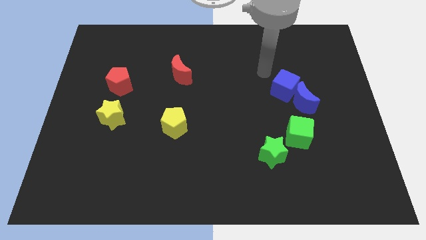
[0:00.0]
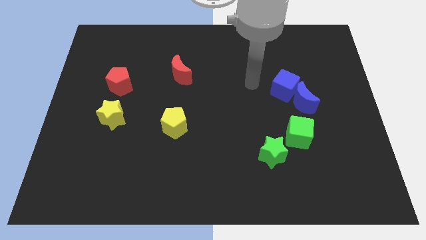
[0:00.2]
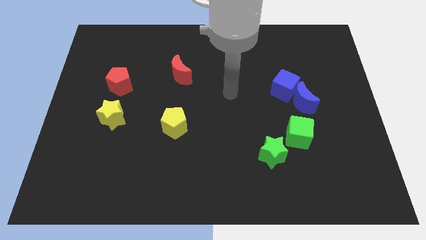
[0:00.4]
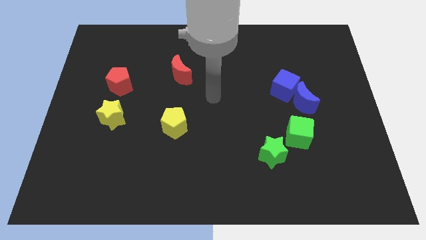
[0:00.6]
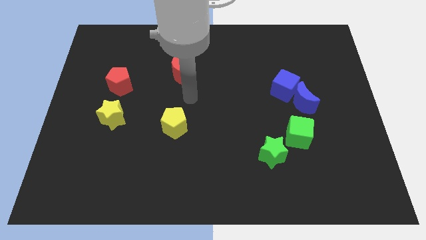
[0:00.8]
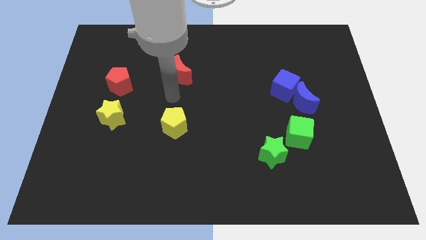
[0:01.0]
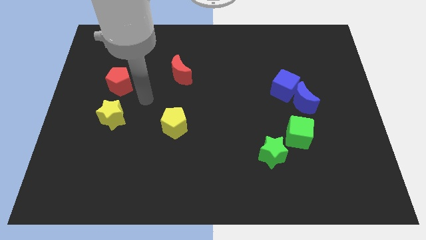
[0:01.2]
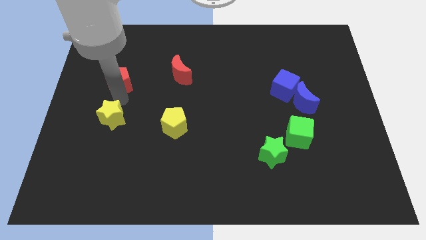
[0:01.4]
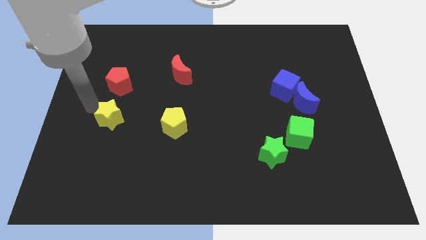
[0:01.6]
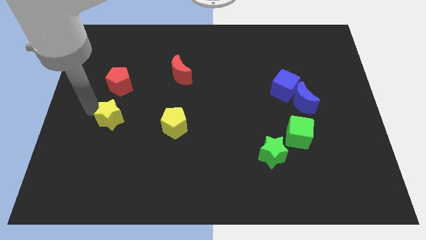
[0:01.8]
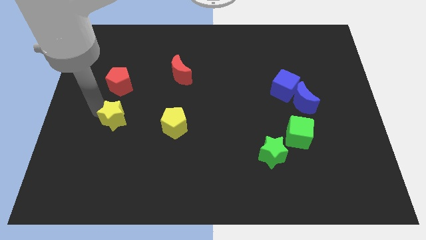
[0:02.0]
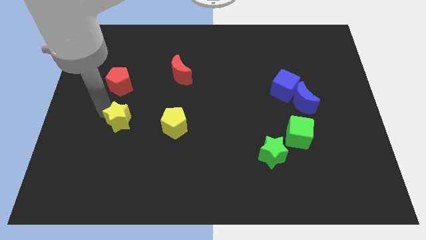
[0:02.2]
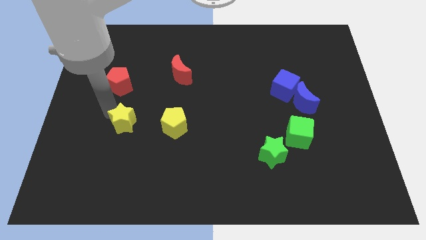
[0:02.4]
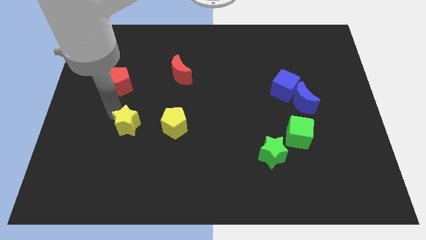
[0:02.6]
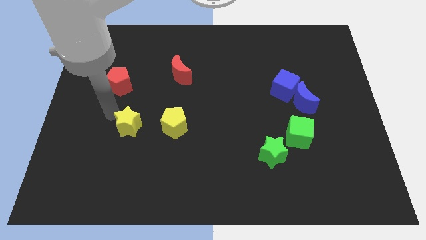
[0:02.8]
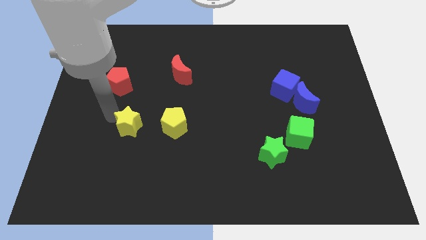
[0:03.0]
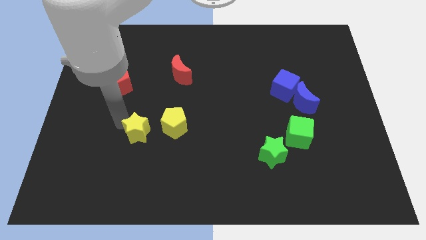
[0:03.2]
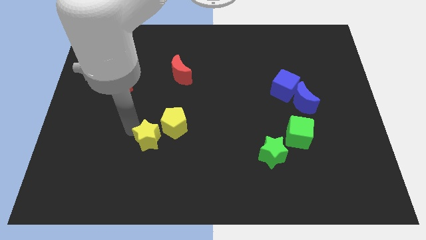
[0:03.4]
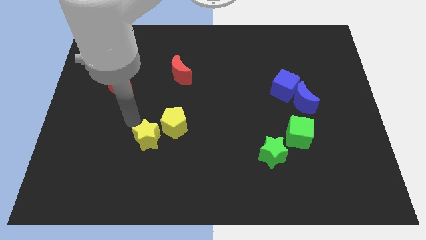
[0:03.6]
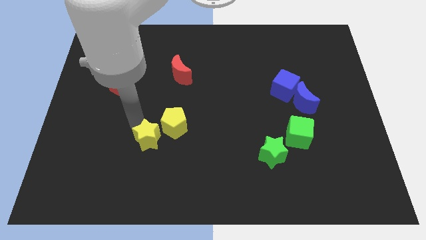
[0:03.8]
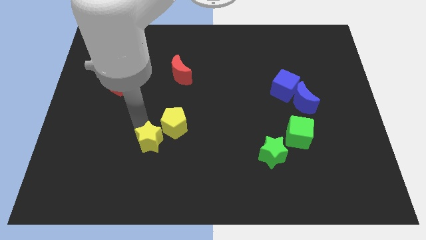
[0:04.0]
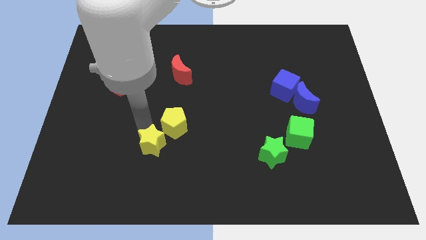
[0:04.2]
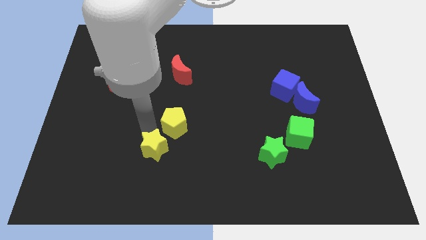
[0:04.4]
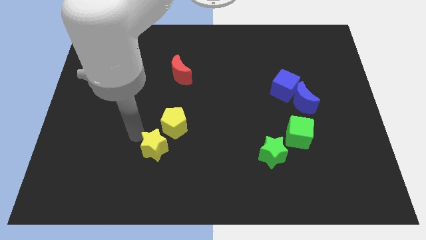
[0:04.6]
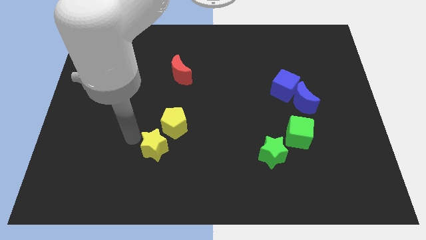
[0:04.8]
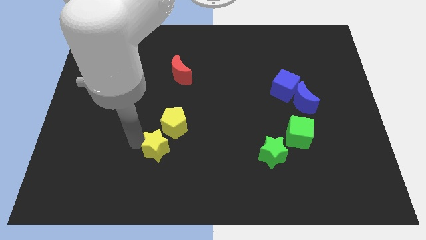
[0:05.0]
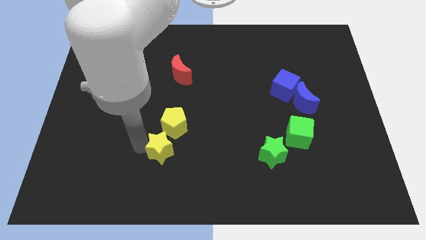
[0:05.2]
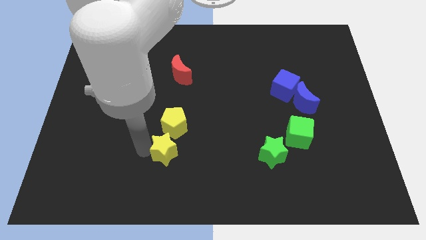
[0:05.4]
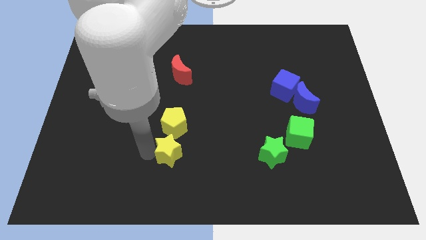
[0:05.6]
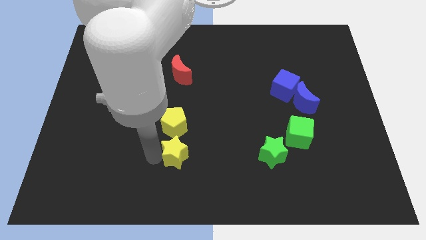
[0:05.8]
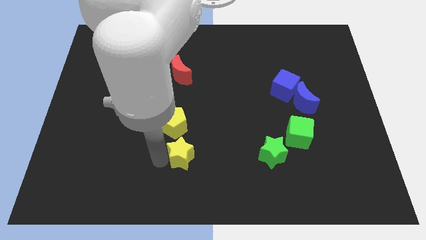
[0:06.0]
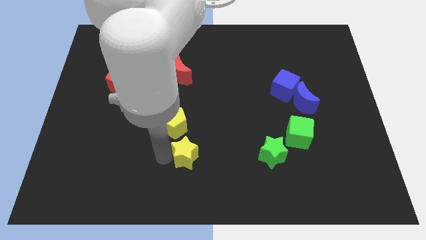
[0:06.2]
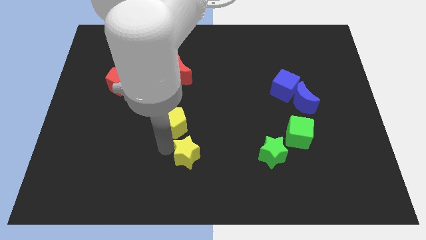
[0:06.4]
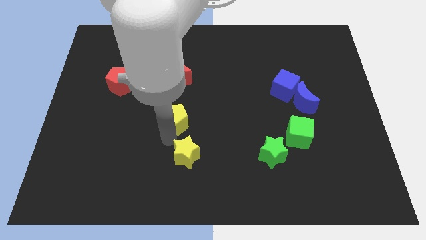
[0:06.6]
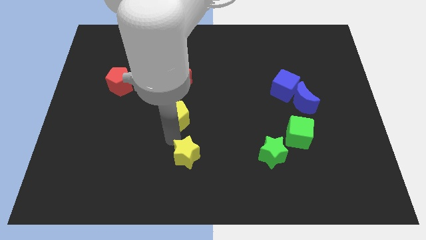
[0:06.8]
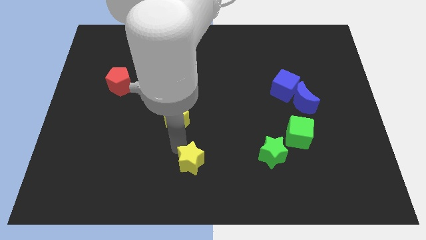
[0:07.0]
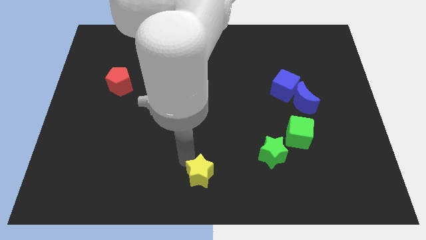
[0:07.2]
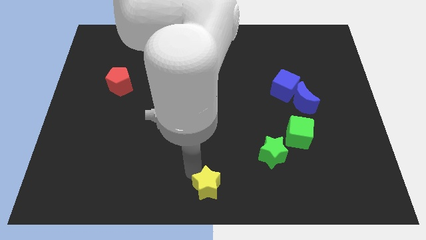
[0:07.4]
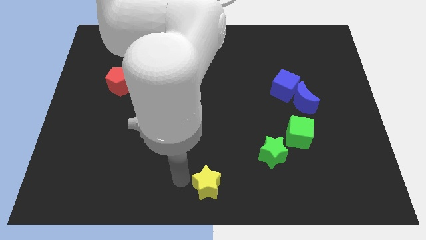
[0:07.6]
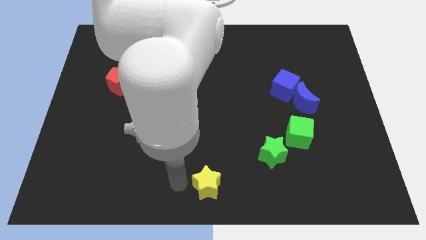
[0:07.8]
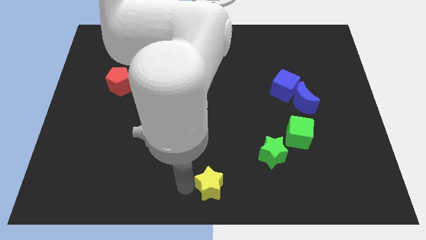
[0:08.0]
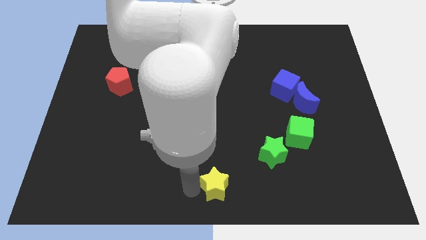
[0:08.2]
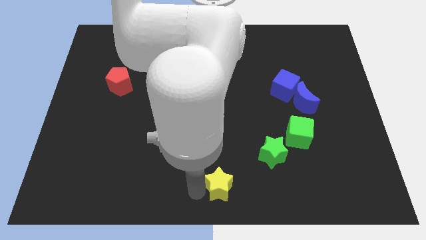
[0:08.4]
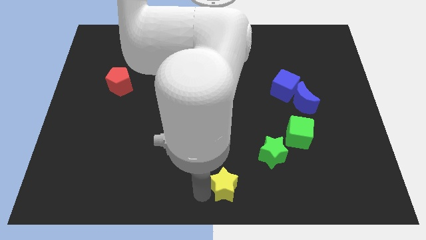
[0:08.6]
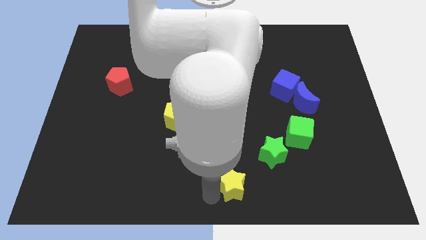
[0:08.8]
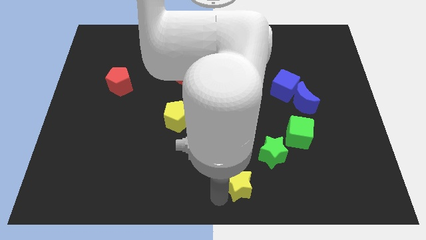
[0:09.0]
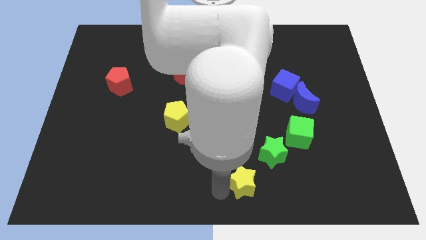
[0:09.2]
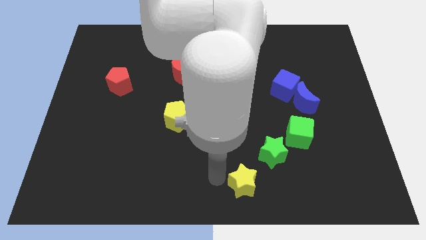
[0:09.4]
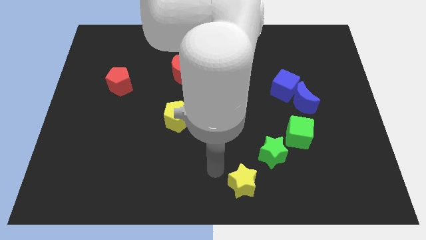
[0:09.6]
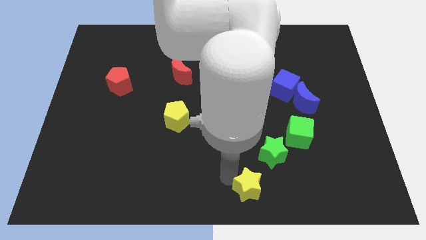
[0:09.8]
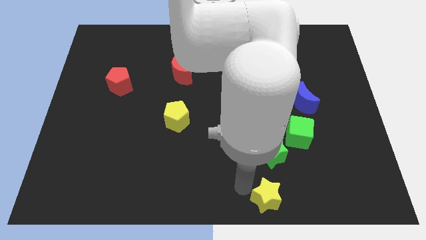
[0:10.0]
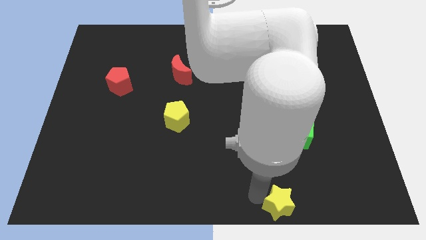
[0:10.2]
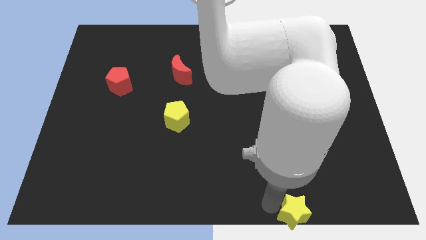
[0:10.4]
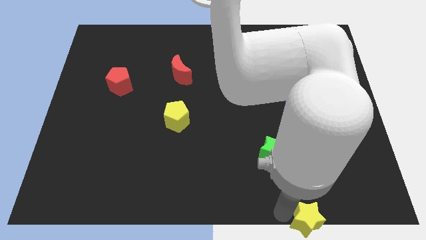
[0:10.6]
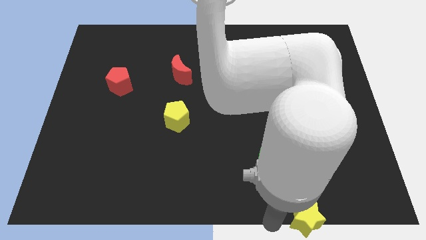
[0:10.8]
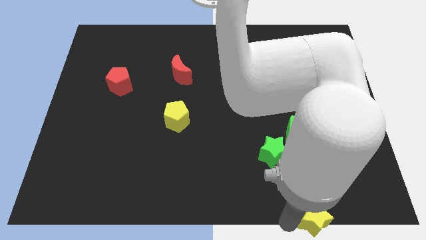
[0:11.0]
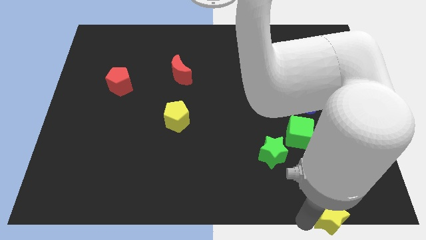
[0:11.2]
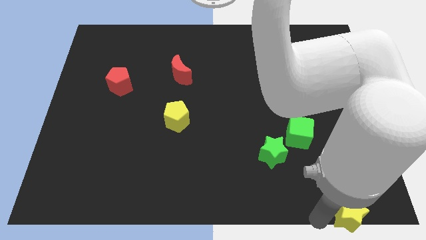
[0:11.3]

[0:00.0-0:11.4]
push the yellow star to the bottom right

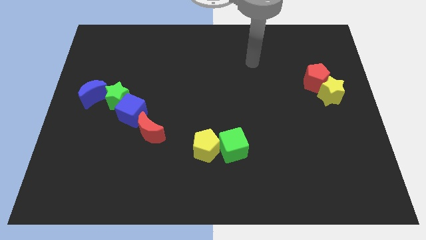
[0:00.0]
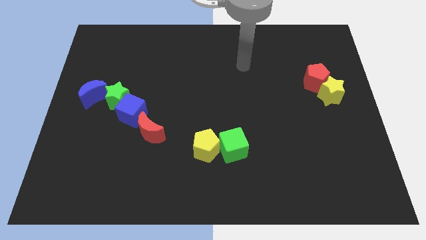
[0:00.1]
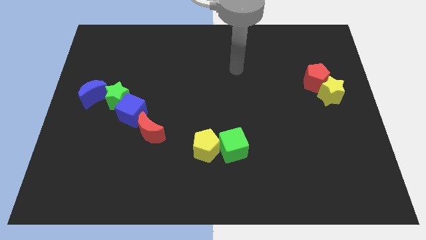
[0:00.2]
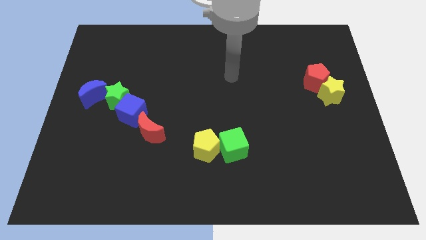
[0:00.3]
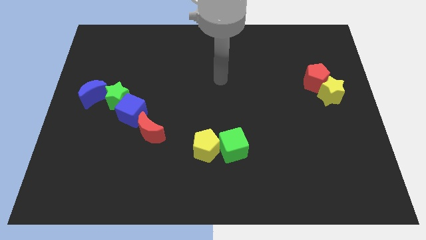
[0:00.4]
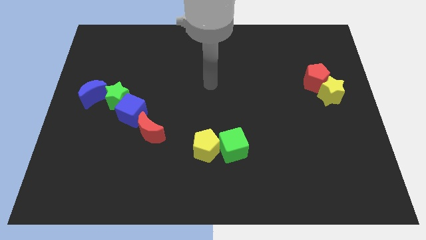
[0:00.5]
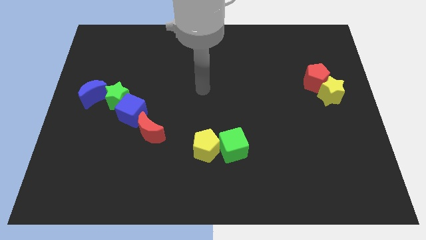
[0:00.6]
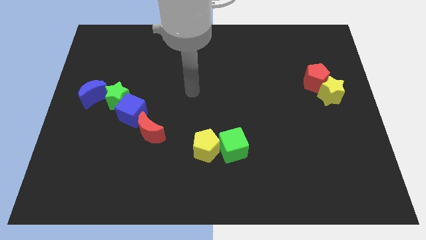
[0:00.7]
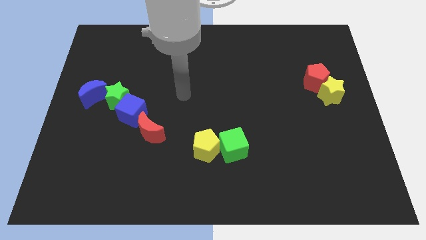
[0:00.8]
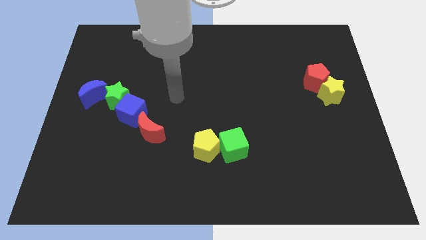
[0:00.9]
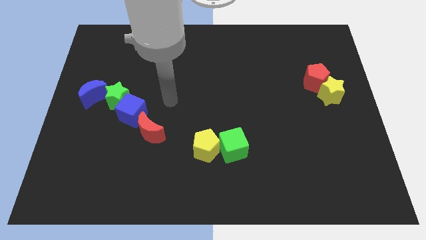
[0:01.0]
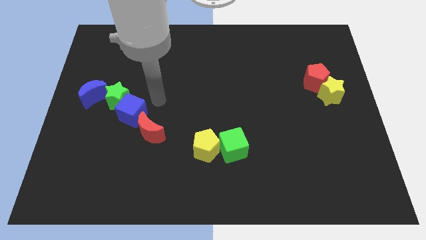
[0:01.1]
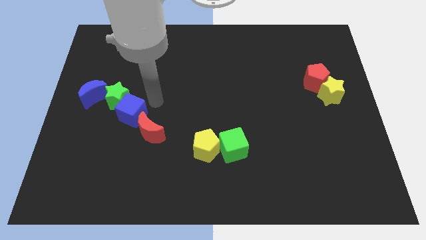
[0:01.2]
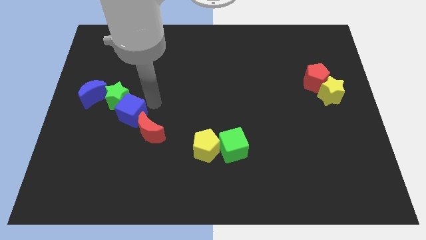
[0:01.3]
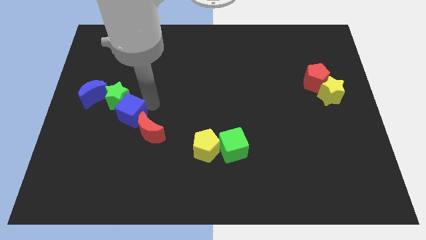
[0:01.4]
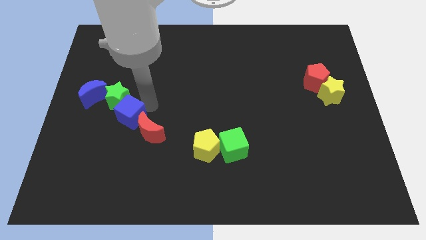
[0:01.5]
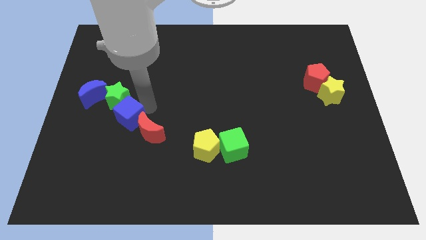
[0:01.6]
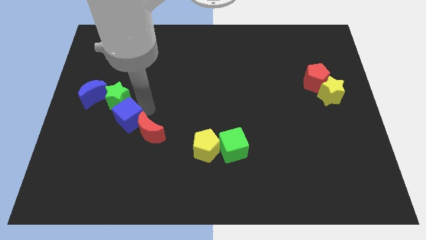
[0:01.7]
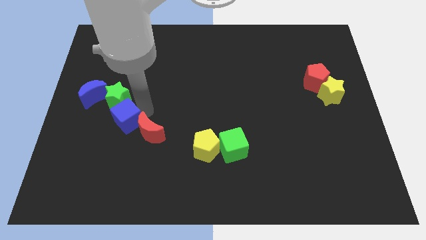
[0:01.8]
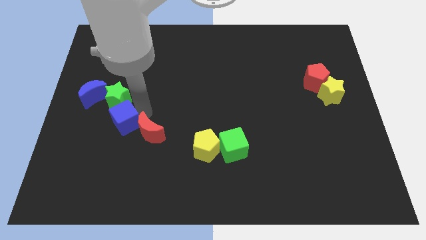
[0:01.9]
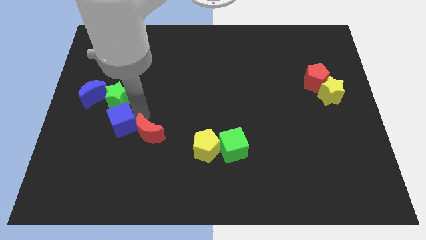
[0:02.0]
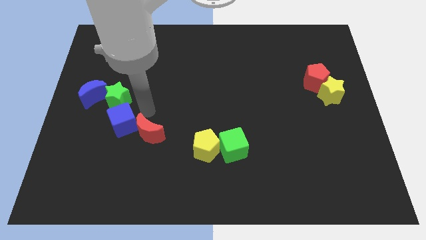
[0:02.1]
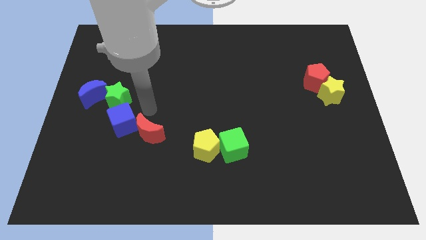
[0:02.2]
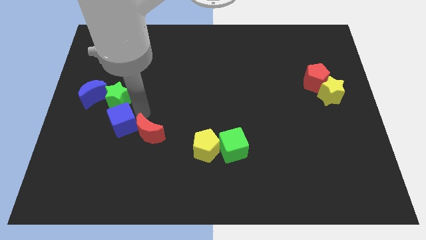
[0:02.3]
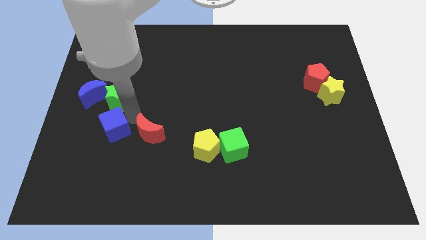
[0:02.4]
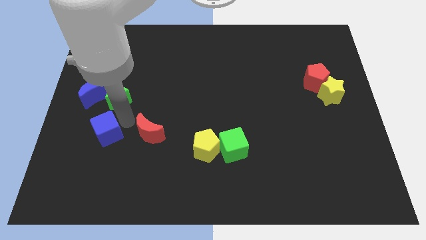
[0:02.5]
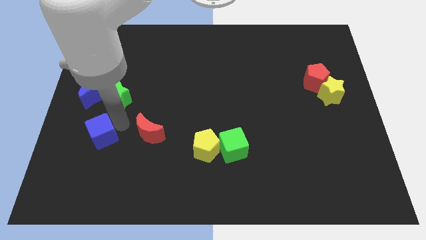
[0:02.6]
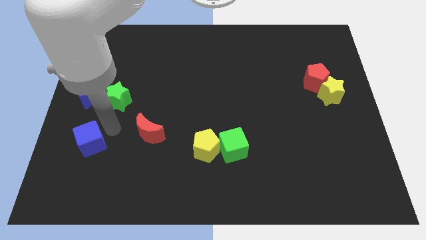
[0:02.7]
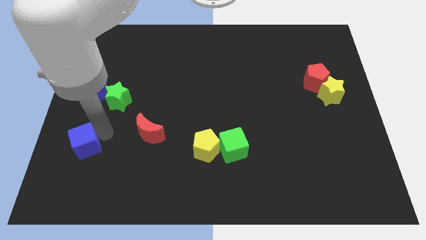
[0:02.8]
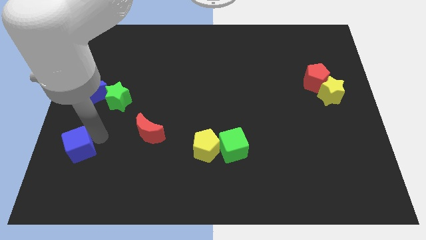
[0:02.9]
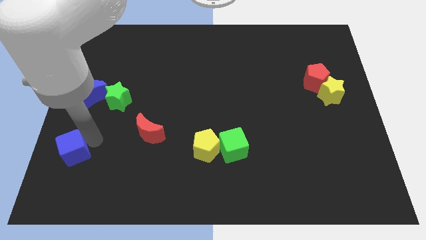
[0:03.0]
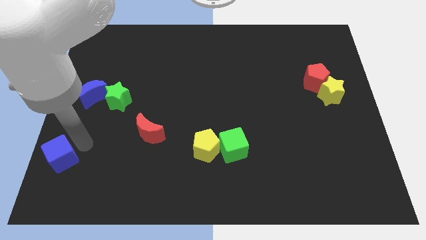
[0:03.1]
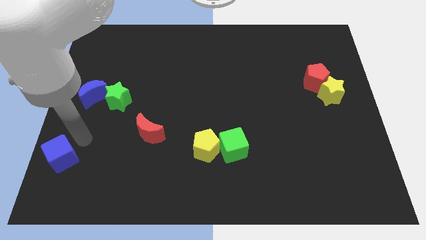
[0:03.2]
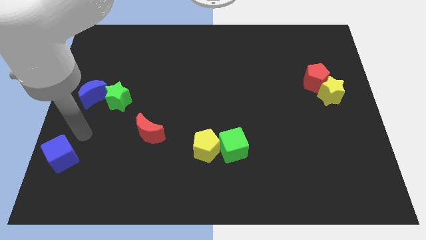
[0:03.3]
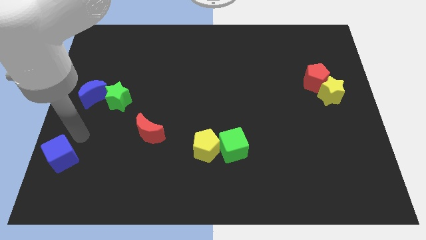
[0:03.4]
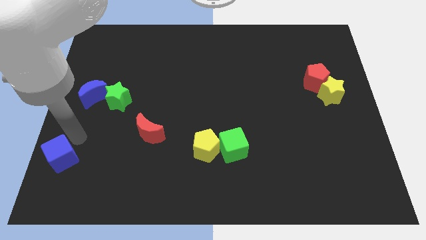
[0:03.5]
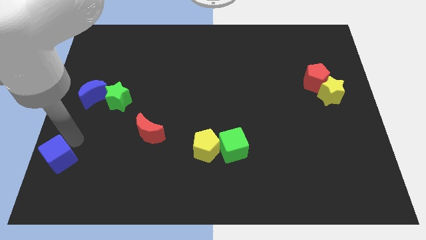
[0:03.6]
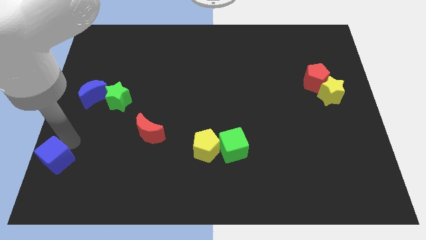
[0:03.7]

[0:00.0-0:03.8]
push the blue cube to the bottom left of the board
